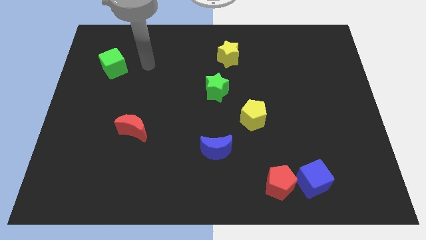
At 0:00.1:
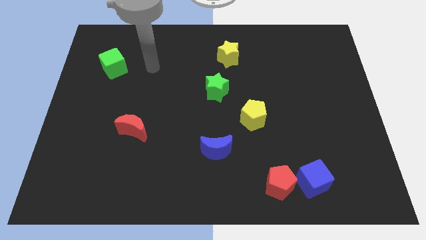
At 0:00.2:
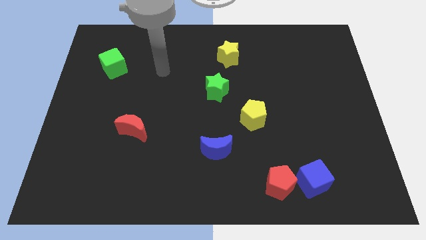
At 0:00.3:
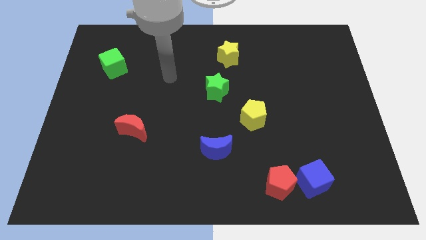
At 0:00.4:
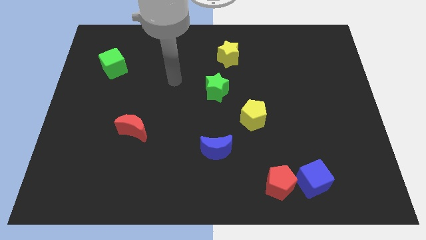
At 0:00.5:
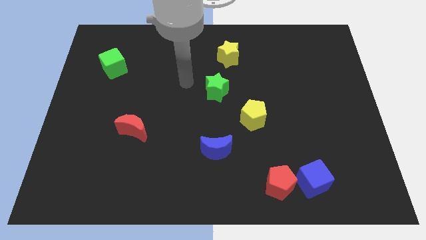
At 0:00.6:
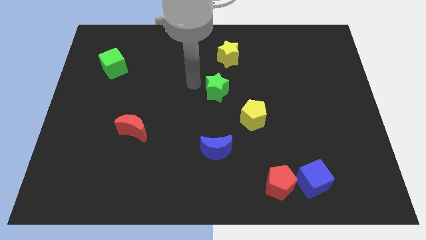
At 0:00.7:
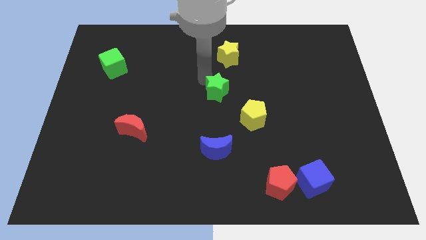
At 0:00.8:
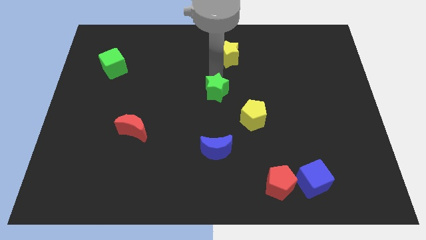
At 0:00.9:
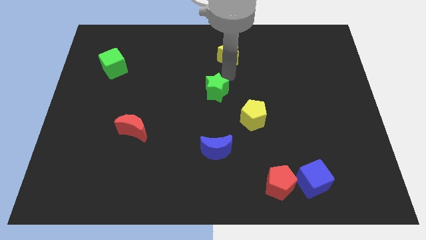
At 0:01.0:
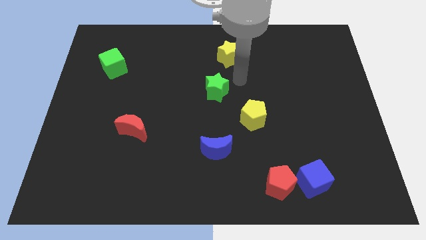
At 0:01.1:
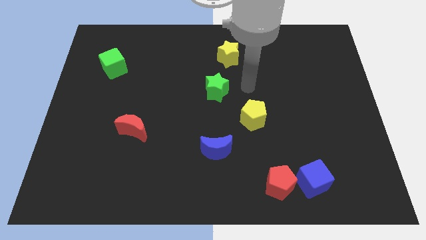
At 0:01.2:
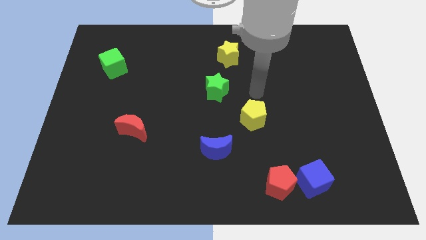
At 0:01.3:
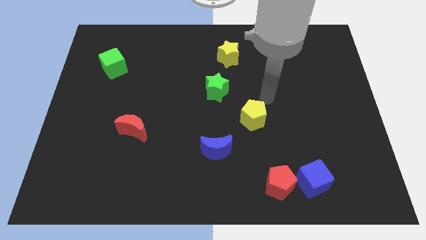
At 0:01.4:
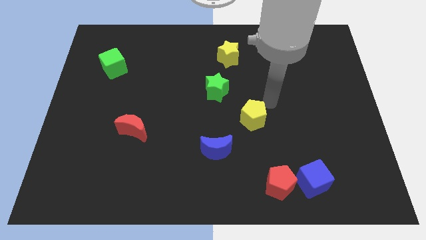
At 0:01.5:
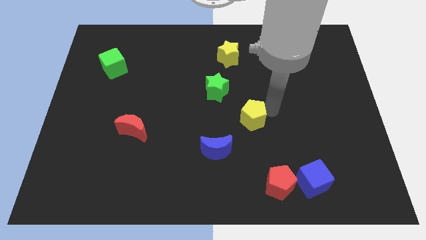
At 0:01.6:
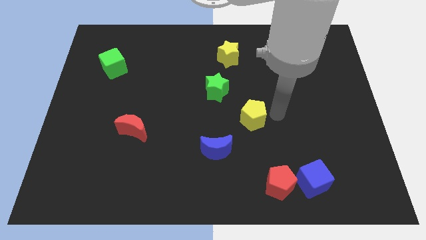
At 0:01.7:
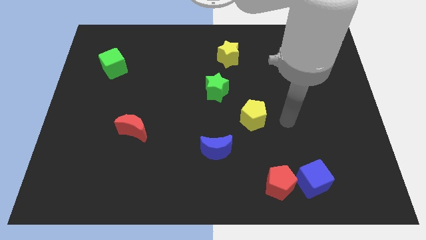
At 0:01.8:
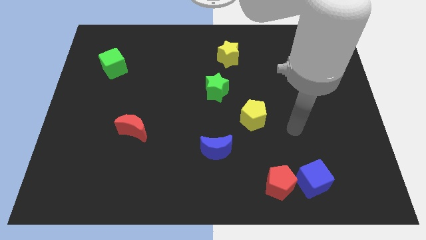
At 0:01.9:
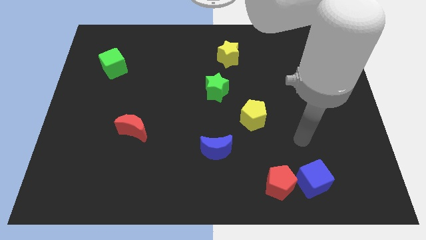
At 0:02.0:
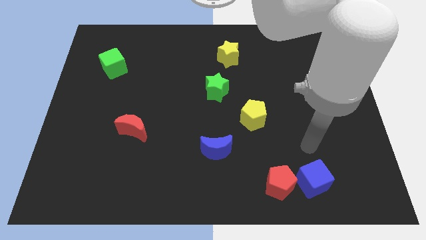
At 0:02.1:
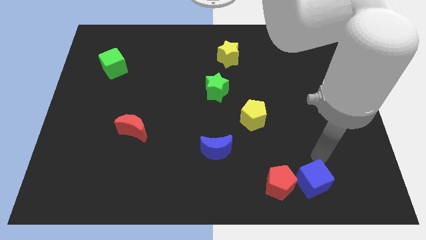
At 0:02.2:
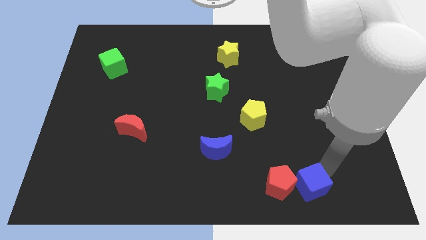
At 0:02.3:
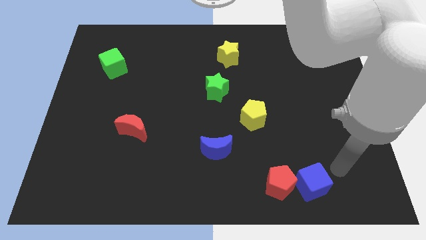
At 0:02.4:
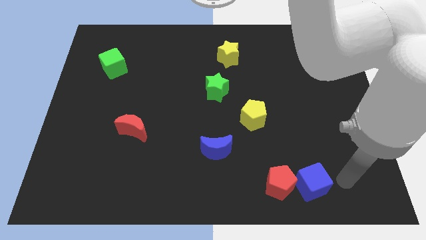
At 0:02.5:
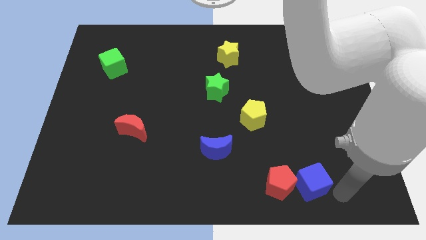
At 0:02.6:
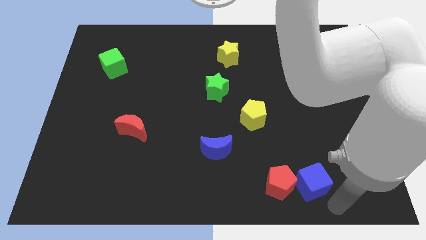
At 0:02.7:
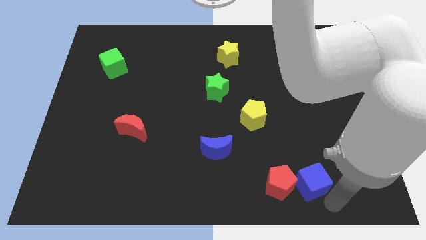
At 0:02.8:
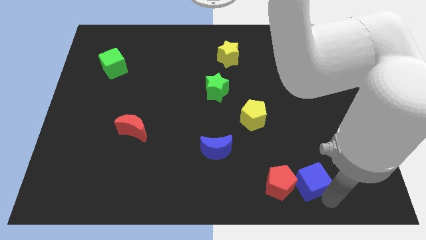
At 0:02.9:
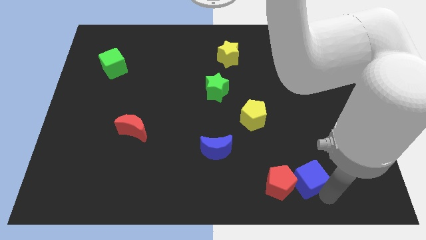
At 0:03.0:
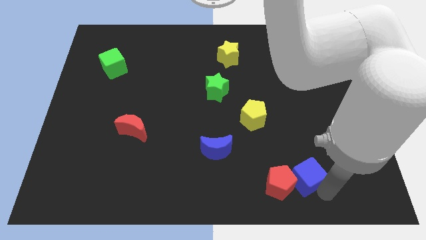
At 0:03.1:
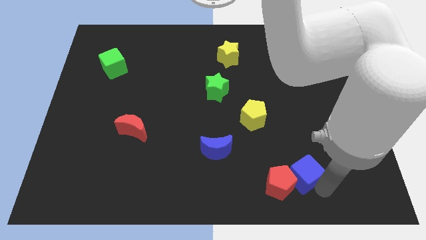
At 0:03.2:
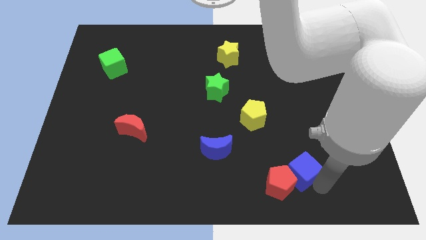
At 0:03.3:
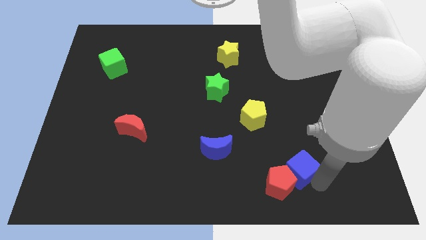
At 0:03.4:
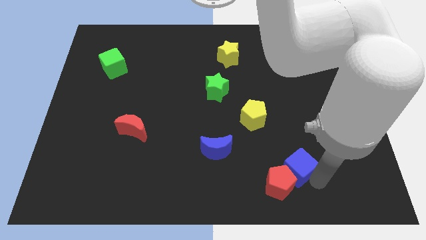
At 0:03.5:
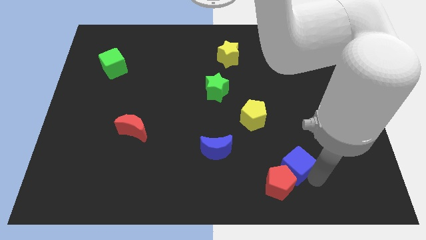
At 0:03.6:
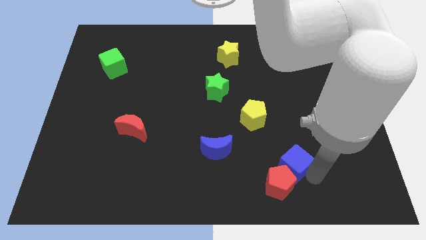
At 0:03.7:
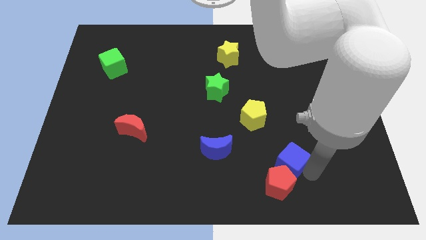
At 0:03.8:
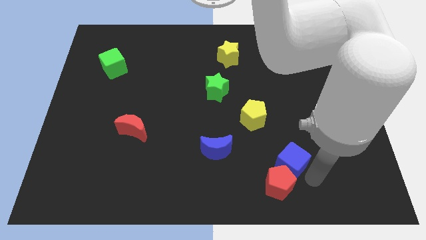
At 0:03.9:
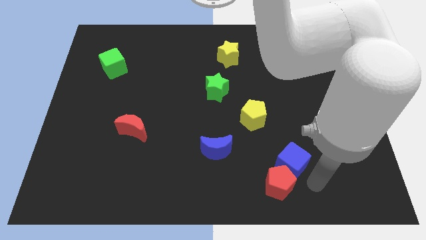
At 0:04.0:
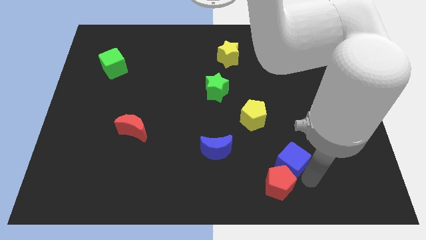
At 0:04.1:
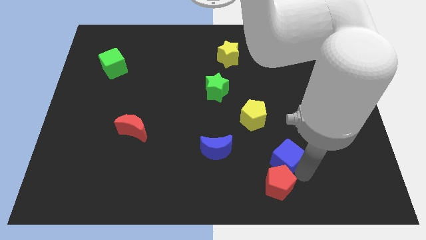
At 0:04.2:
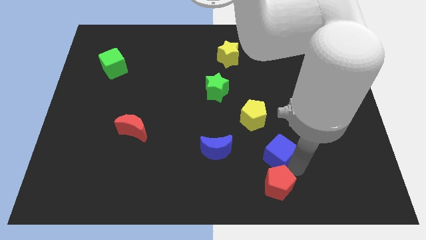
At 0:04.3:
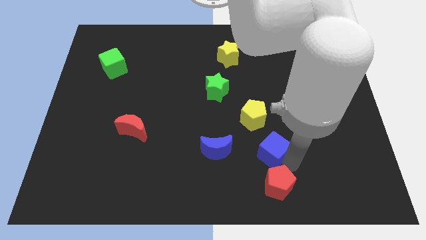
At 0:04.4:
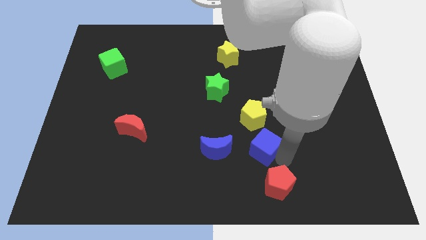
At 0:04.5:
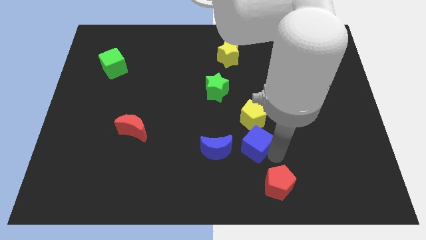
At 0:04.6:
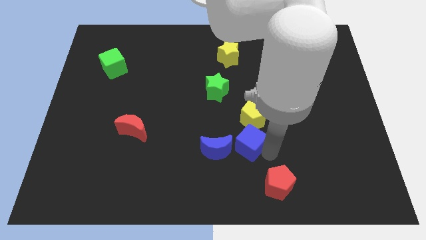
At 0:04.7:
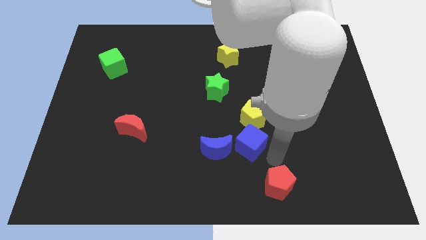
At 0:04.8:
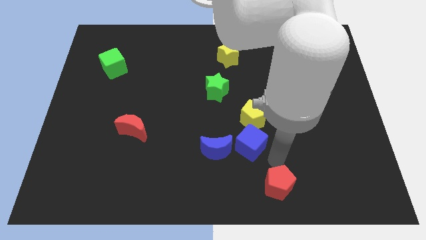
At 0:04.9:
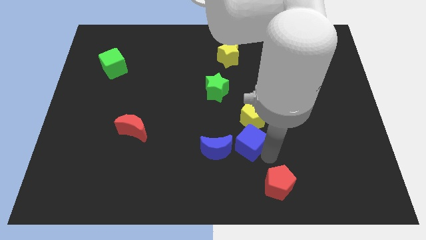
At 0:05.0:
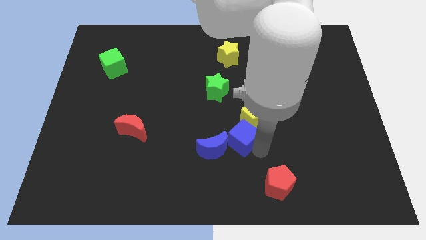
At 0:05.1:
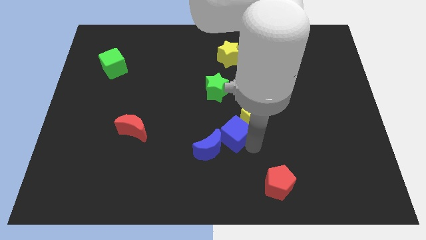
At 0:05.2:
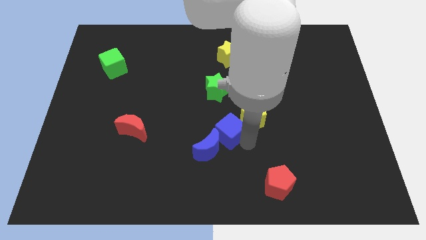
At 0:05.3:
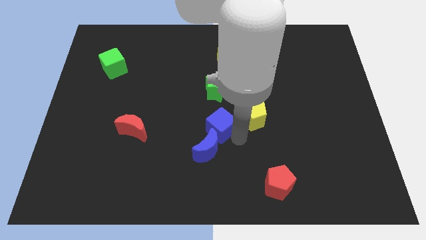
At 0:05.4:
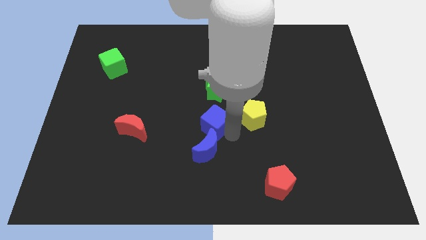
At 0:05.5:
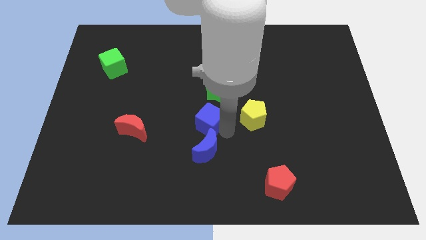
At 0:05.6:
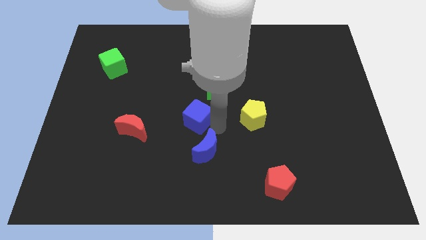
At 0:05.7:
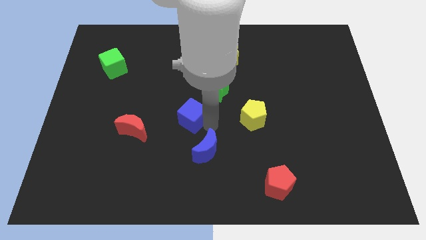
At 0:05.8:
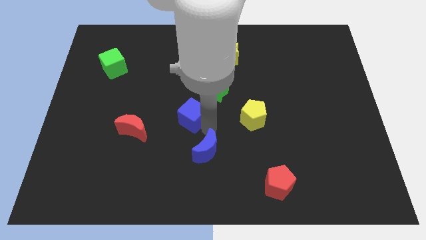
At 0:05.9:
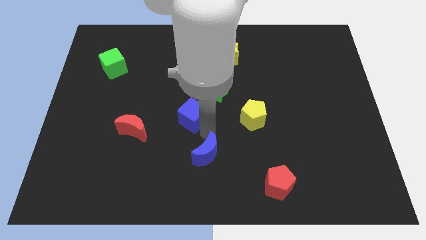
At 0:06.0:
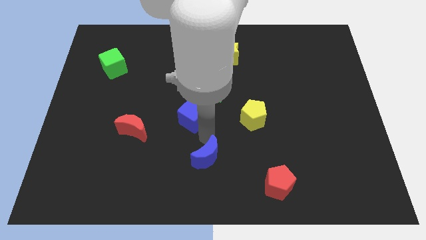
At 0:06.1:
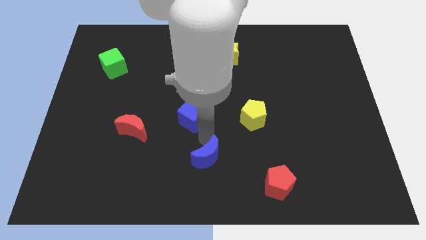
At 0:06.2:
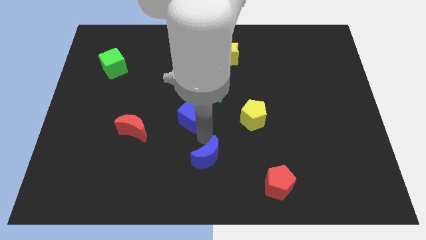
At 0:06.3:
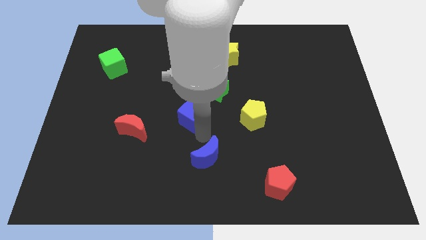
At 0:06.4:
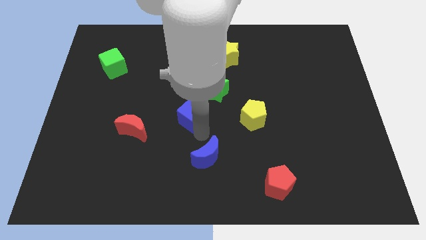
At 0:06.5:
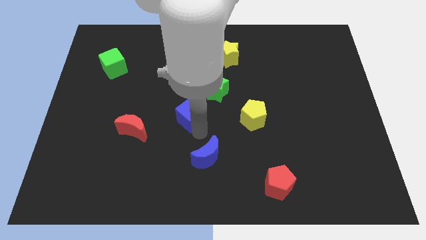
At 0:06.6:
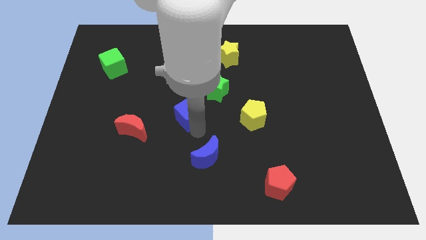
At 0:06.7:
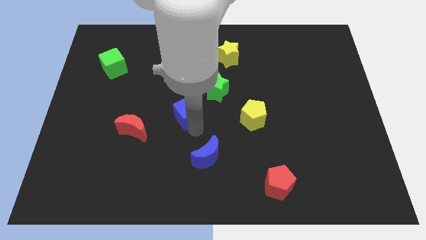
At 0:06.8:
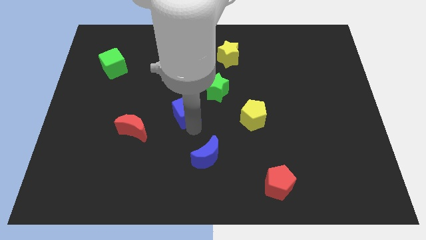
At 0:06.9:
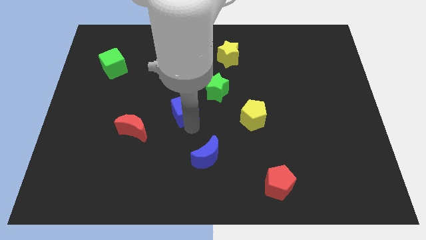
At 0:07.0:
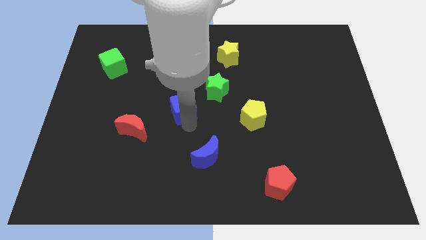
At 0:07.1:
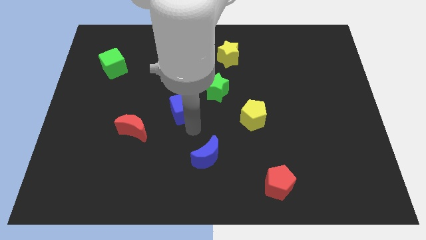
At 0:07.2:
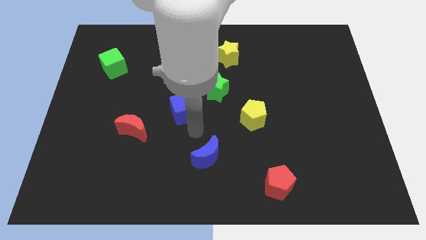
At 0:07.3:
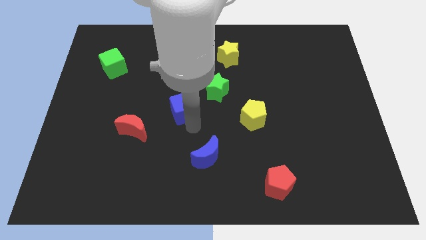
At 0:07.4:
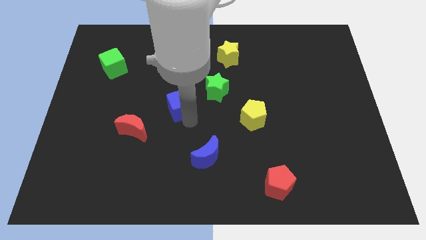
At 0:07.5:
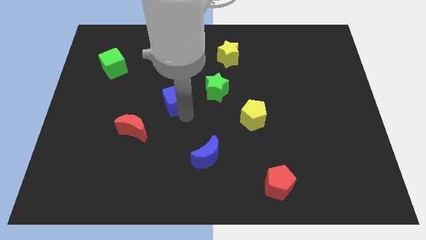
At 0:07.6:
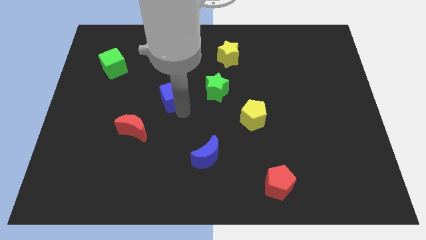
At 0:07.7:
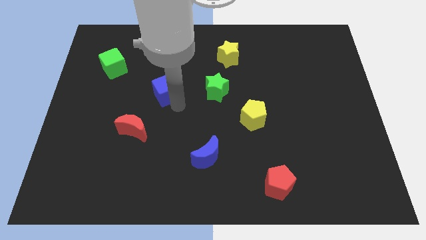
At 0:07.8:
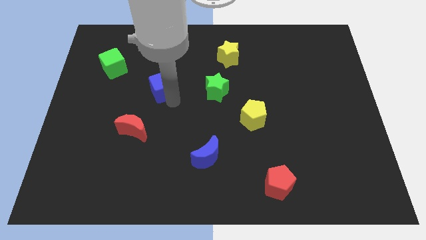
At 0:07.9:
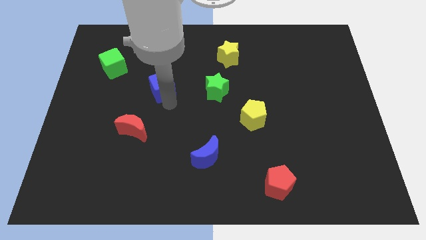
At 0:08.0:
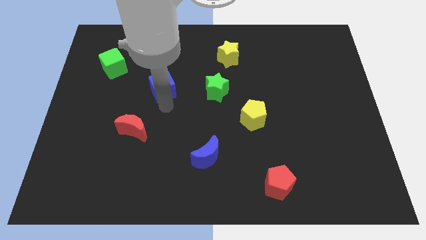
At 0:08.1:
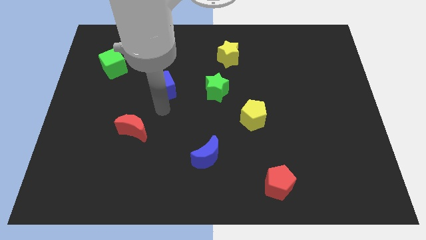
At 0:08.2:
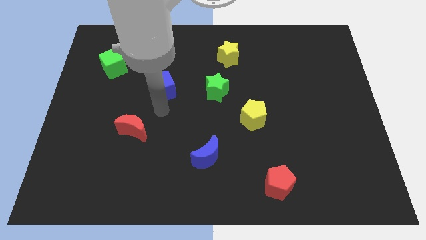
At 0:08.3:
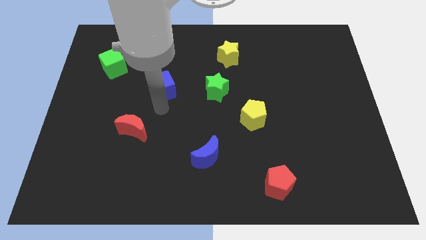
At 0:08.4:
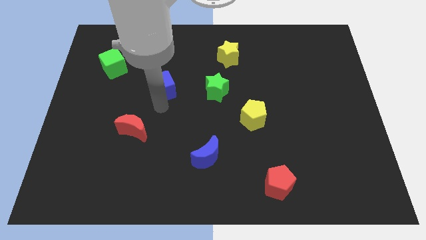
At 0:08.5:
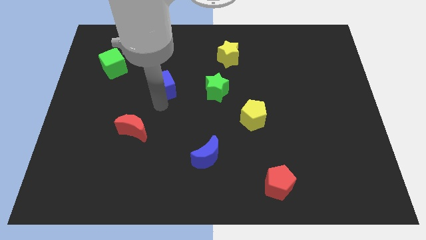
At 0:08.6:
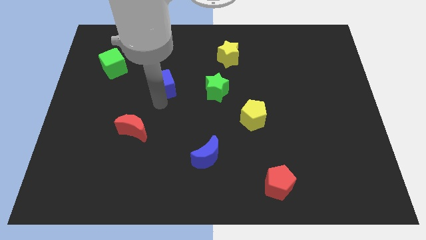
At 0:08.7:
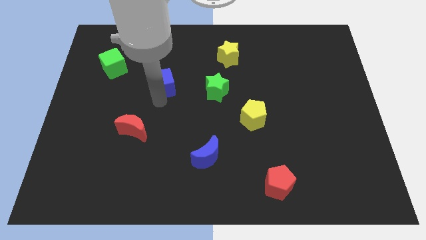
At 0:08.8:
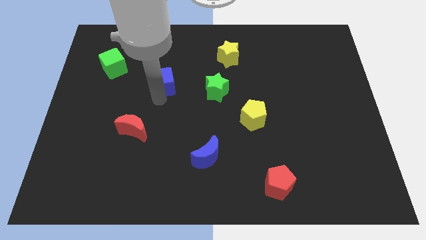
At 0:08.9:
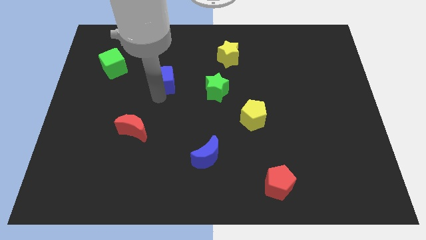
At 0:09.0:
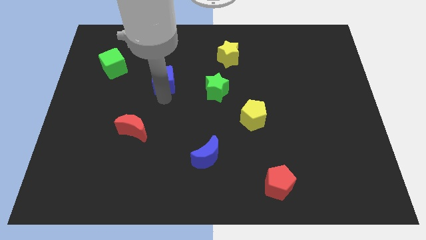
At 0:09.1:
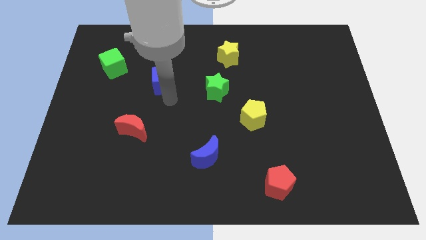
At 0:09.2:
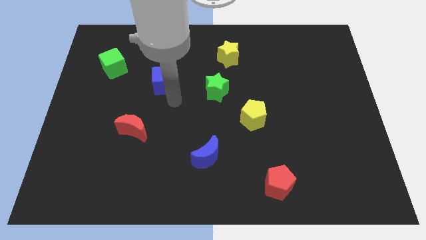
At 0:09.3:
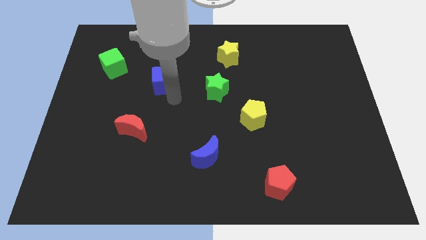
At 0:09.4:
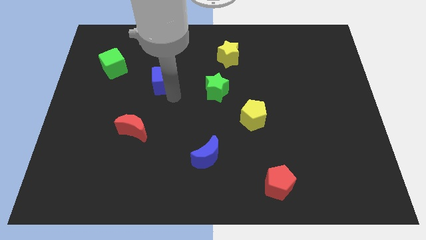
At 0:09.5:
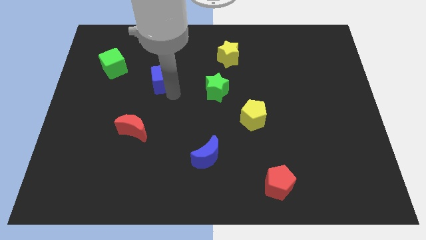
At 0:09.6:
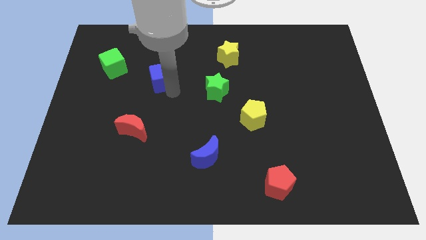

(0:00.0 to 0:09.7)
put the blue cube to the right of the green cube
